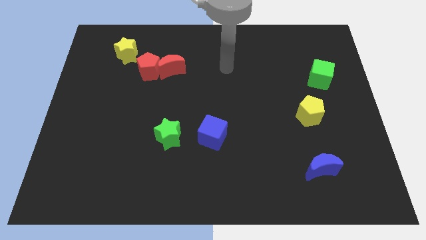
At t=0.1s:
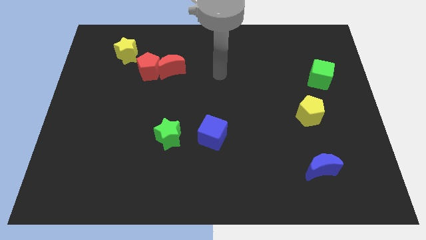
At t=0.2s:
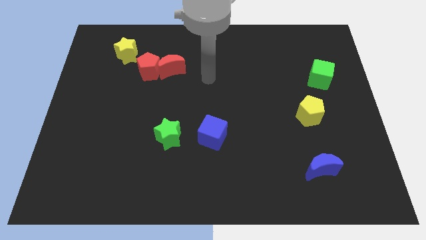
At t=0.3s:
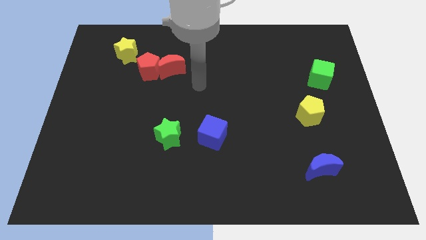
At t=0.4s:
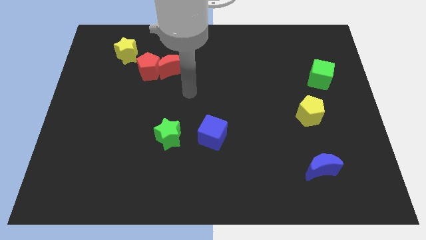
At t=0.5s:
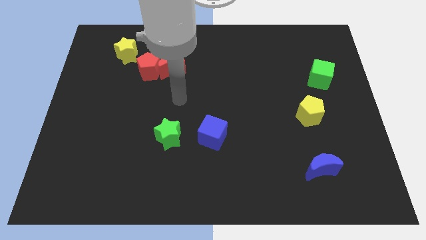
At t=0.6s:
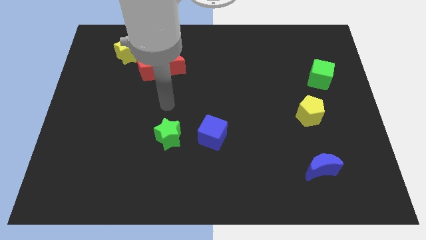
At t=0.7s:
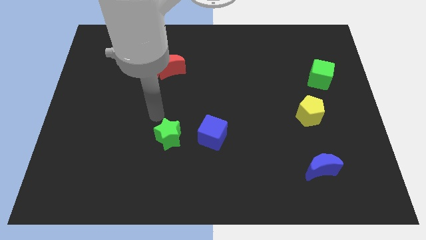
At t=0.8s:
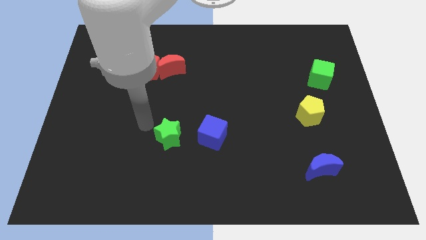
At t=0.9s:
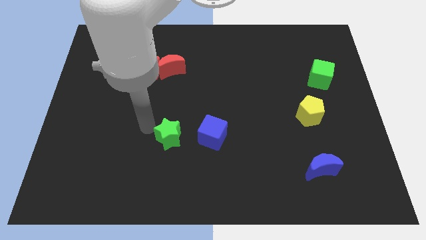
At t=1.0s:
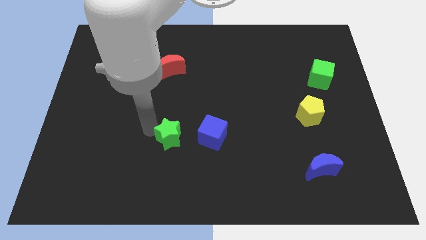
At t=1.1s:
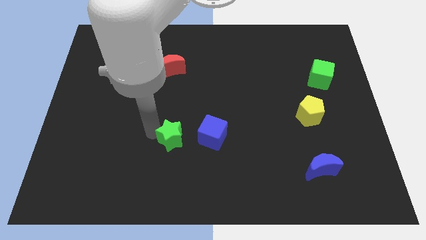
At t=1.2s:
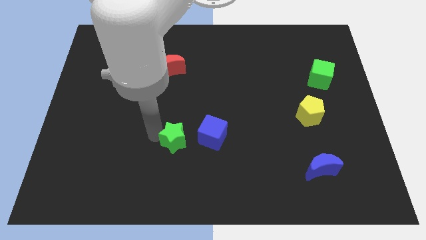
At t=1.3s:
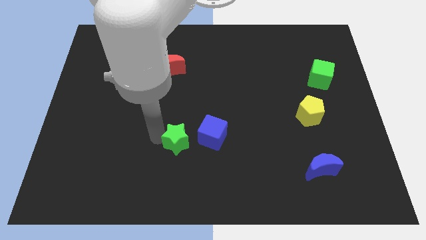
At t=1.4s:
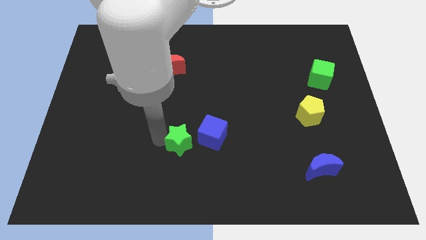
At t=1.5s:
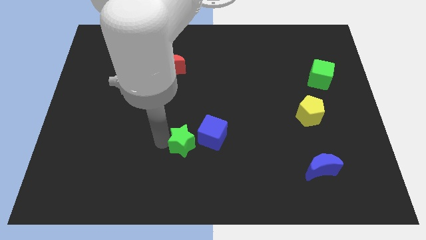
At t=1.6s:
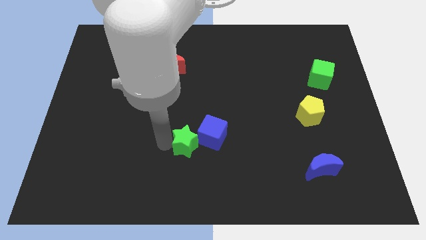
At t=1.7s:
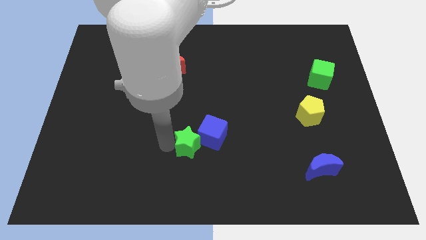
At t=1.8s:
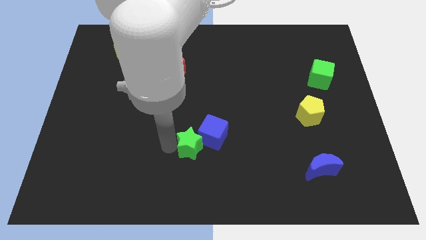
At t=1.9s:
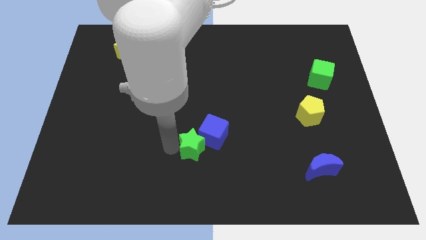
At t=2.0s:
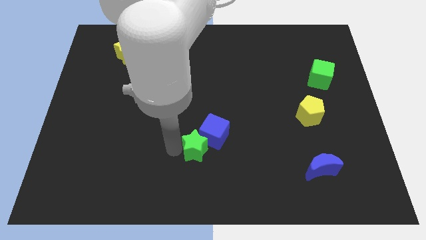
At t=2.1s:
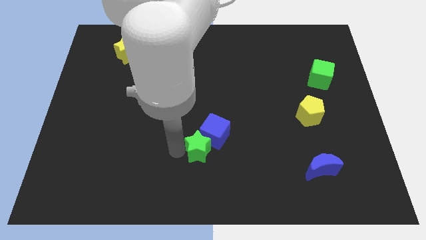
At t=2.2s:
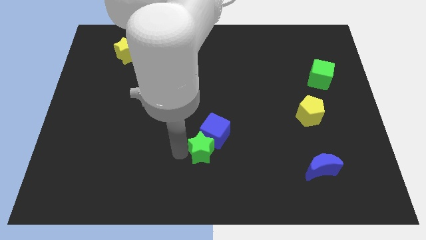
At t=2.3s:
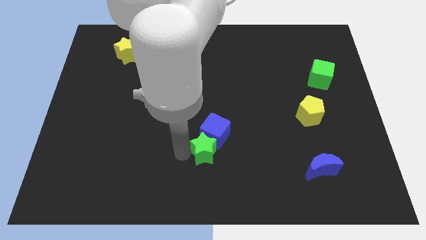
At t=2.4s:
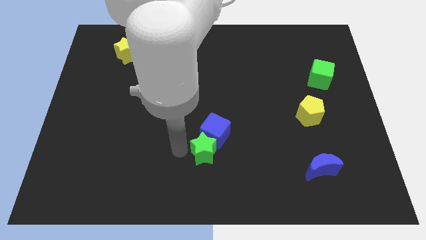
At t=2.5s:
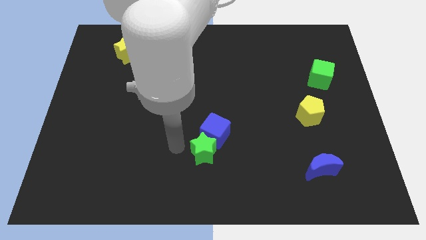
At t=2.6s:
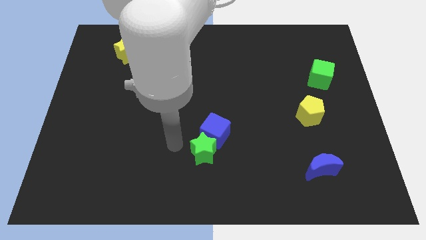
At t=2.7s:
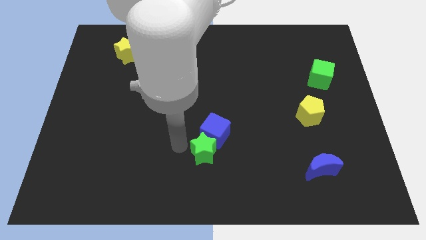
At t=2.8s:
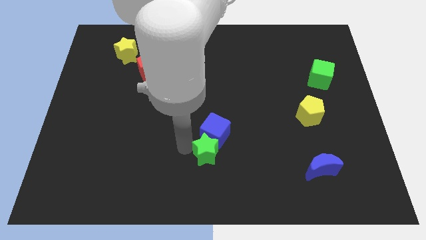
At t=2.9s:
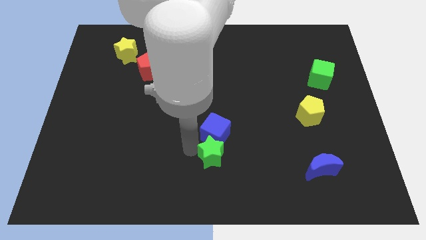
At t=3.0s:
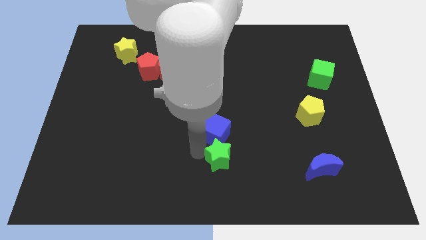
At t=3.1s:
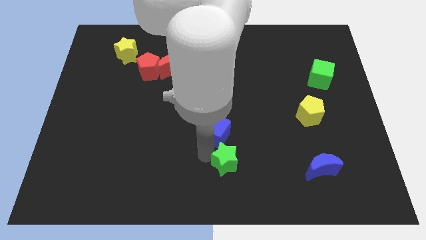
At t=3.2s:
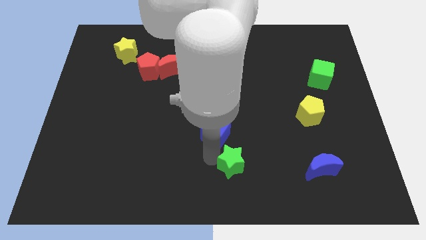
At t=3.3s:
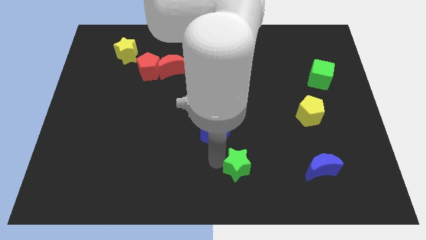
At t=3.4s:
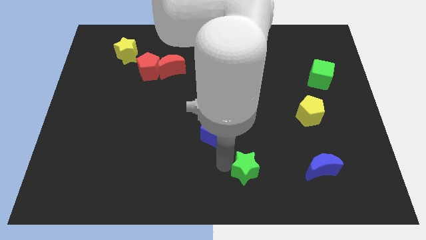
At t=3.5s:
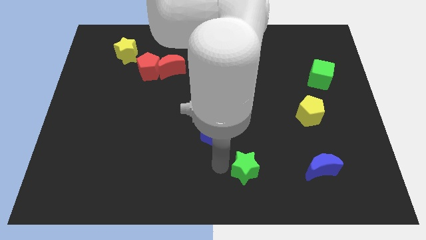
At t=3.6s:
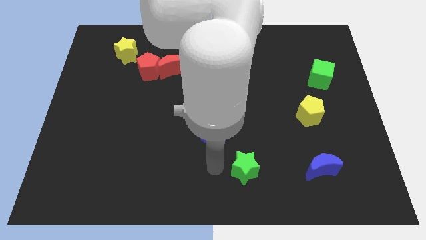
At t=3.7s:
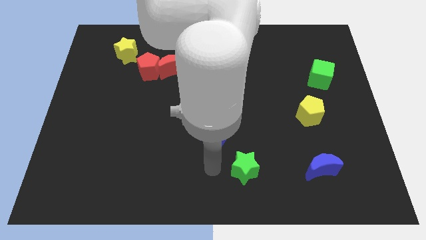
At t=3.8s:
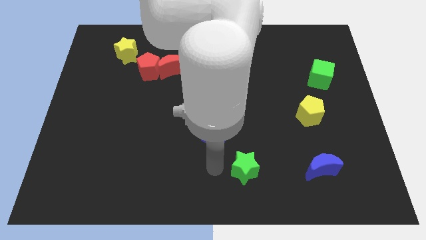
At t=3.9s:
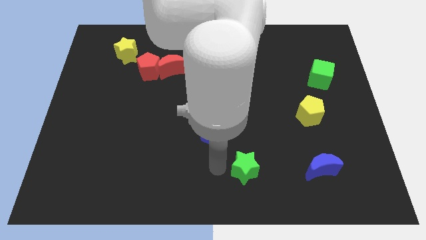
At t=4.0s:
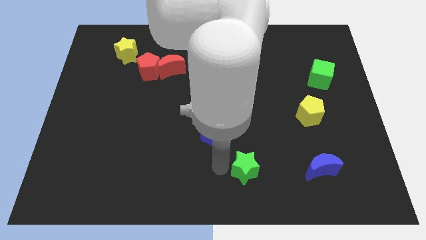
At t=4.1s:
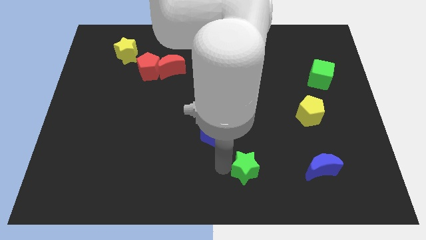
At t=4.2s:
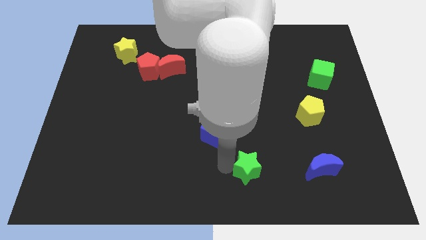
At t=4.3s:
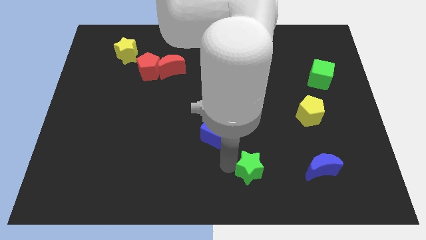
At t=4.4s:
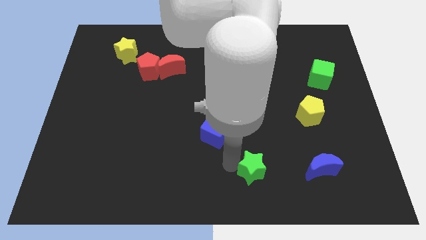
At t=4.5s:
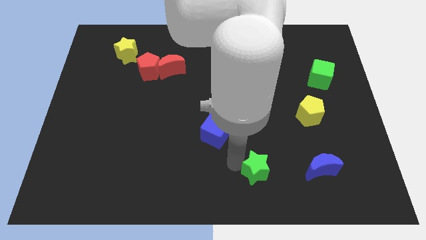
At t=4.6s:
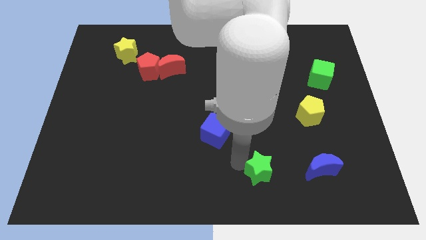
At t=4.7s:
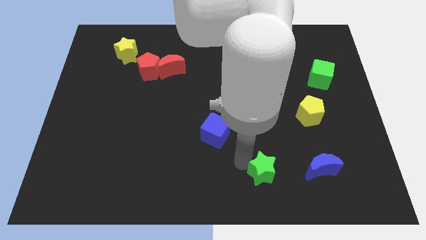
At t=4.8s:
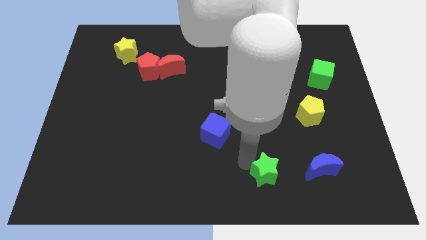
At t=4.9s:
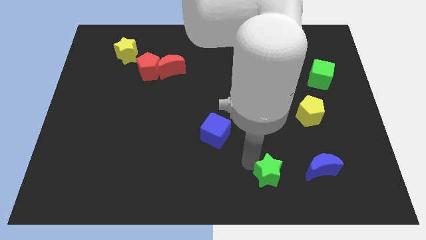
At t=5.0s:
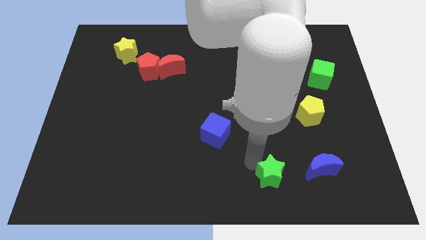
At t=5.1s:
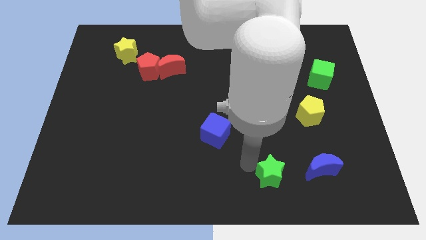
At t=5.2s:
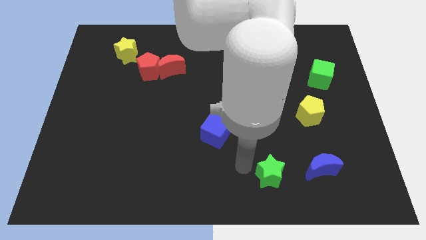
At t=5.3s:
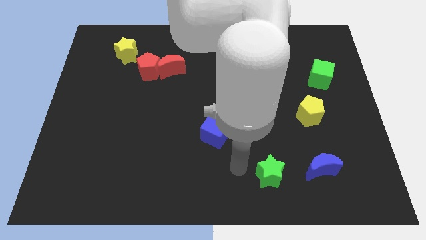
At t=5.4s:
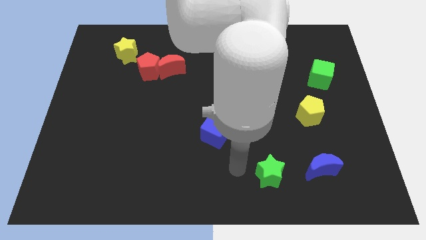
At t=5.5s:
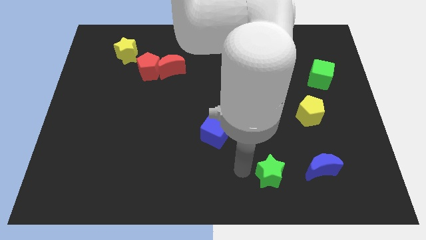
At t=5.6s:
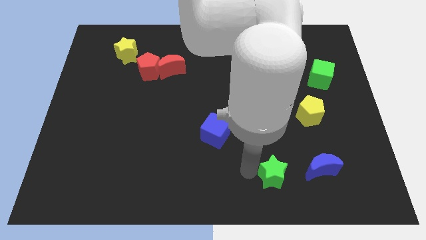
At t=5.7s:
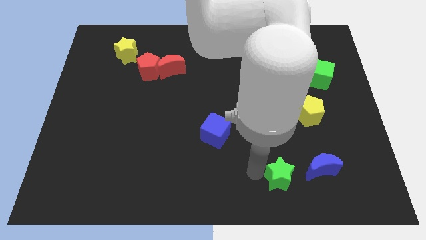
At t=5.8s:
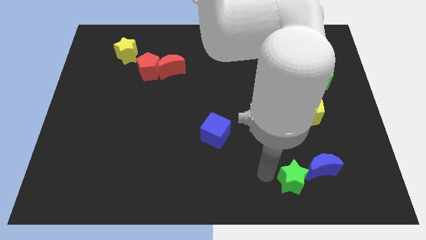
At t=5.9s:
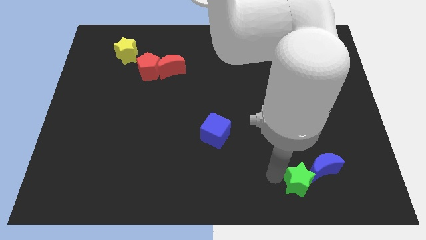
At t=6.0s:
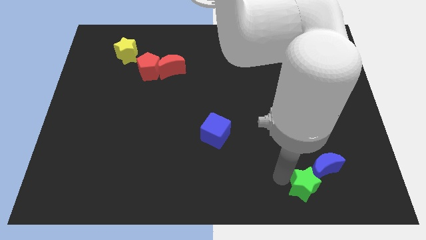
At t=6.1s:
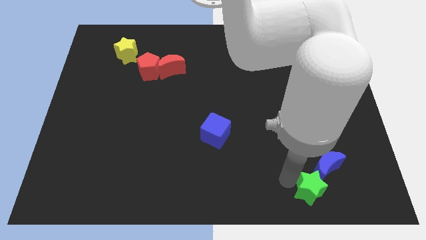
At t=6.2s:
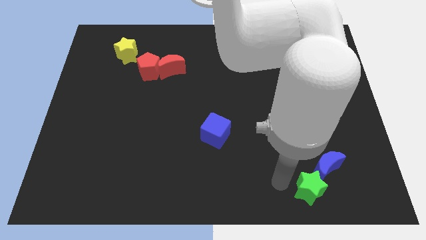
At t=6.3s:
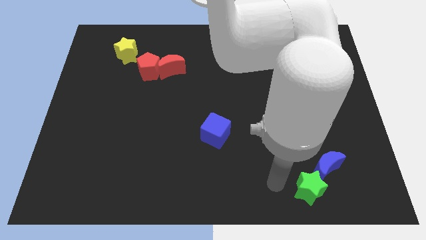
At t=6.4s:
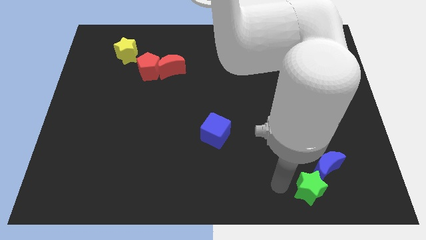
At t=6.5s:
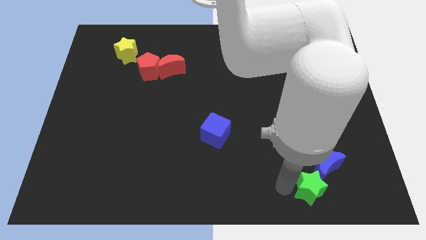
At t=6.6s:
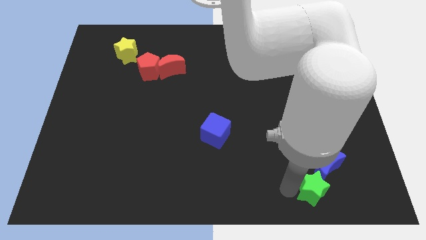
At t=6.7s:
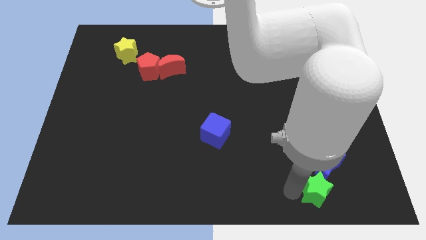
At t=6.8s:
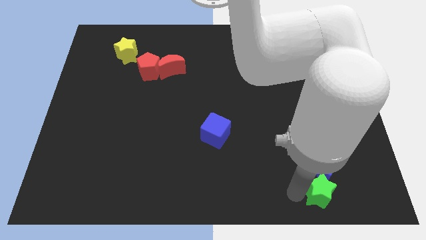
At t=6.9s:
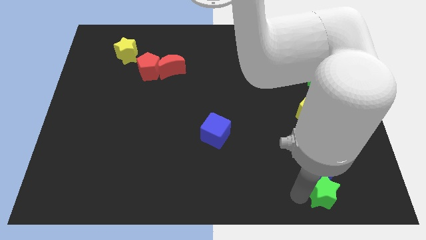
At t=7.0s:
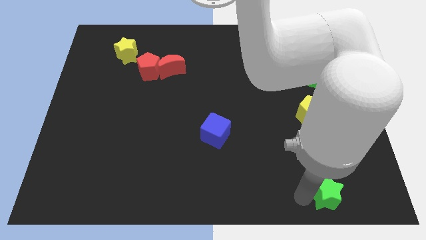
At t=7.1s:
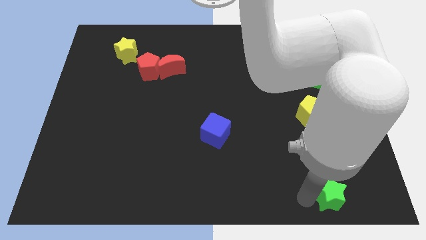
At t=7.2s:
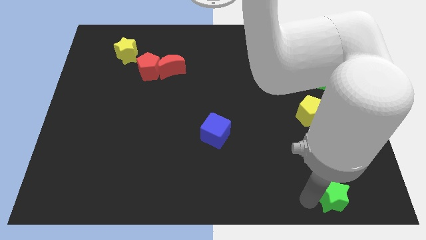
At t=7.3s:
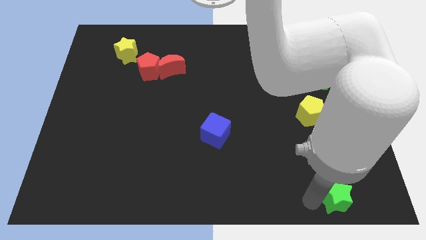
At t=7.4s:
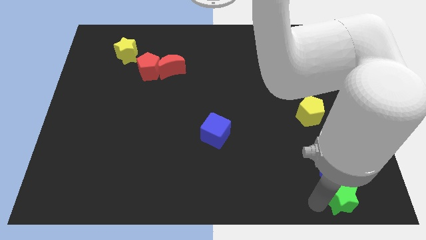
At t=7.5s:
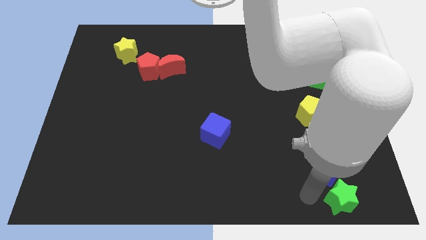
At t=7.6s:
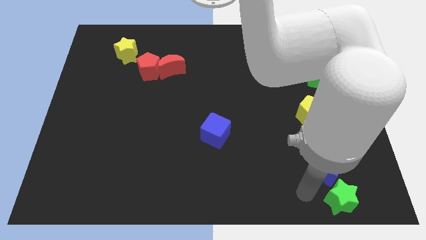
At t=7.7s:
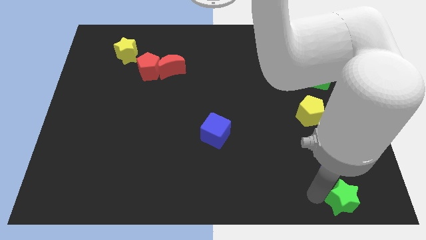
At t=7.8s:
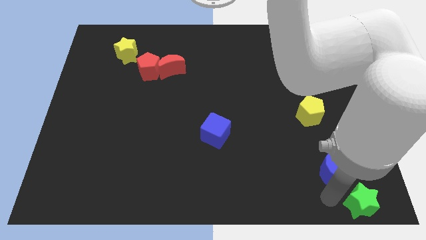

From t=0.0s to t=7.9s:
push the green star to the lower right corner

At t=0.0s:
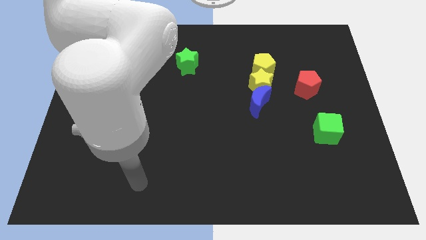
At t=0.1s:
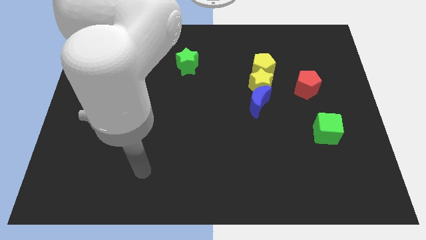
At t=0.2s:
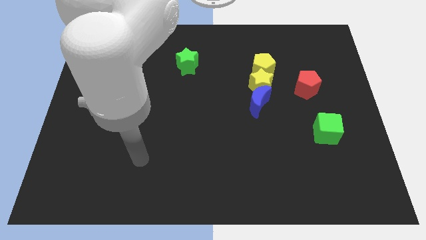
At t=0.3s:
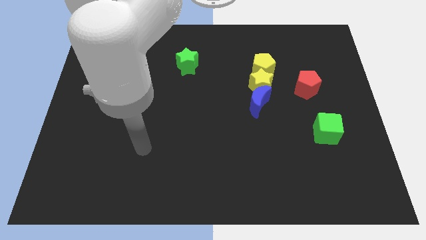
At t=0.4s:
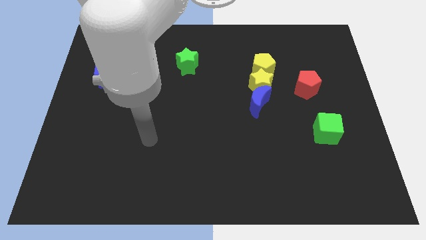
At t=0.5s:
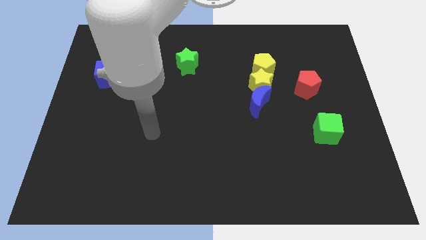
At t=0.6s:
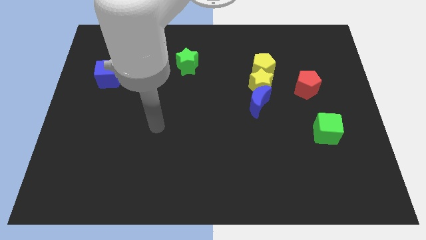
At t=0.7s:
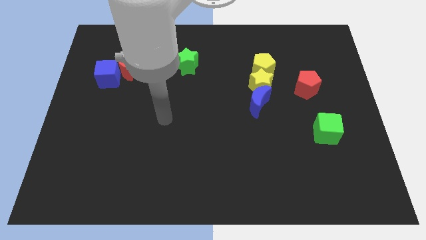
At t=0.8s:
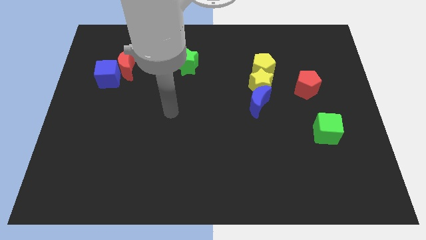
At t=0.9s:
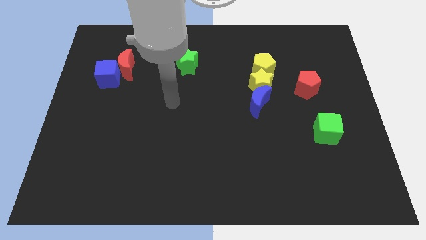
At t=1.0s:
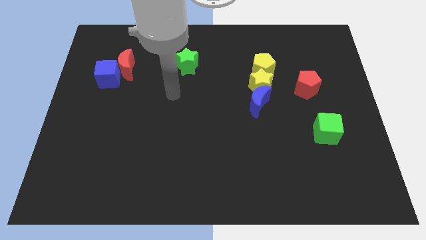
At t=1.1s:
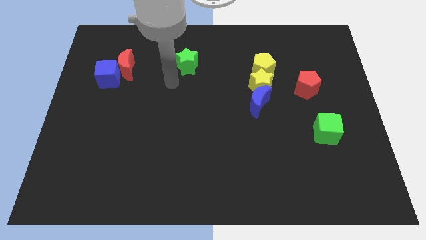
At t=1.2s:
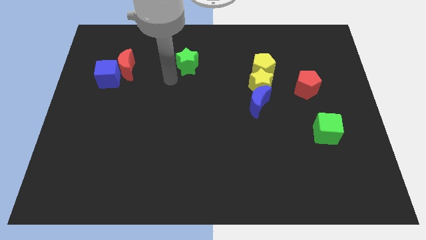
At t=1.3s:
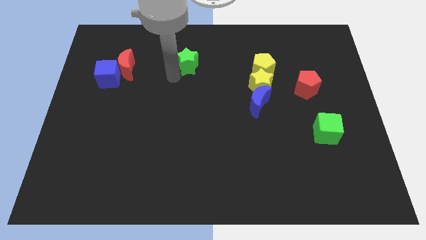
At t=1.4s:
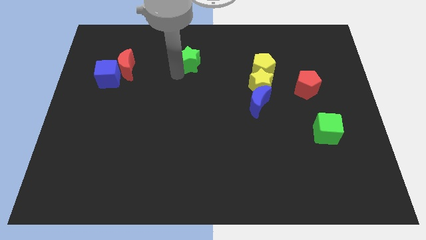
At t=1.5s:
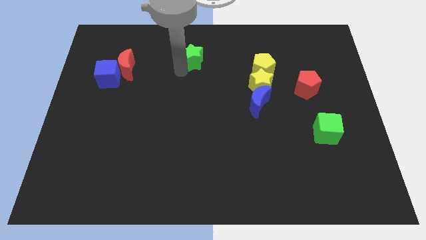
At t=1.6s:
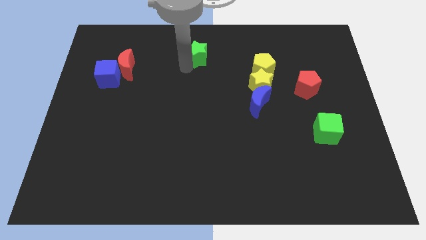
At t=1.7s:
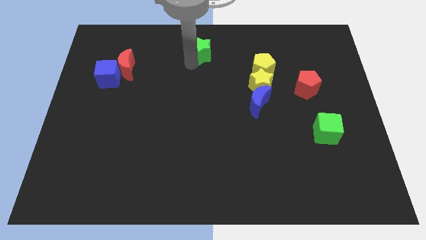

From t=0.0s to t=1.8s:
slide the green star to the top
